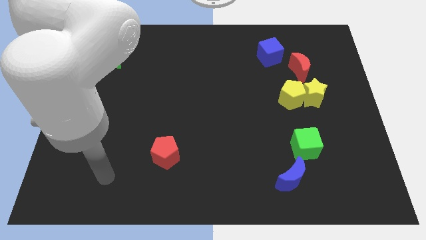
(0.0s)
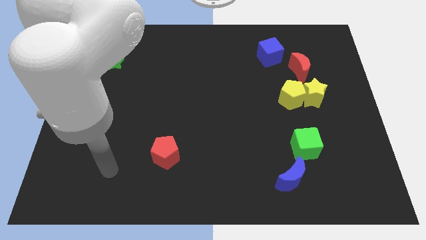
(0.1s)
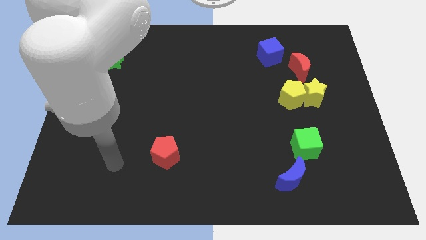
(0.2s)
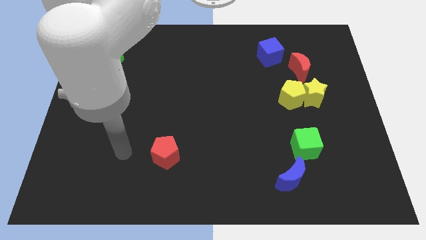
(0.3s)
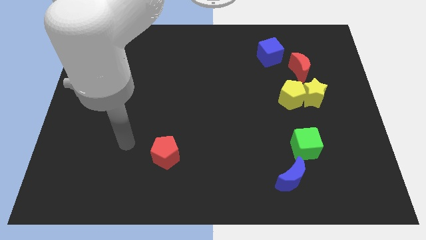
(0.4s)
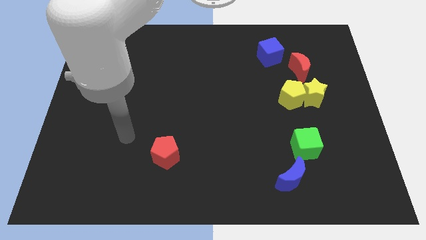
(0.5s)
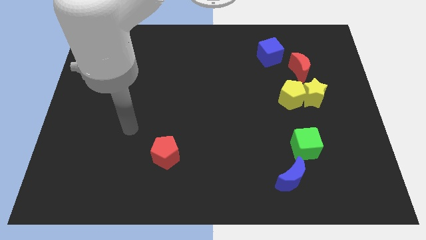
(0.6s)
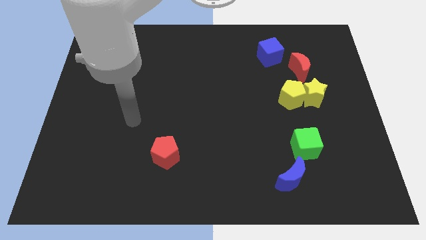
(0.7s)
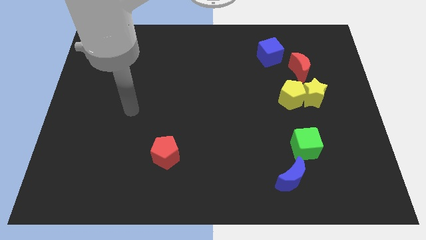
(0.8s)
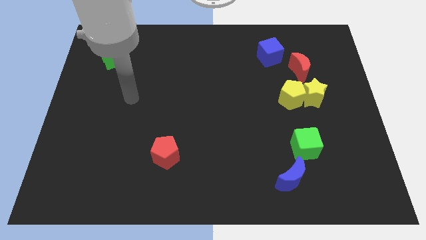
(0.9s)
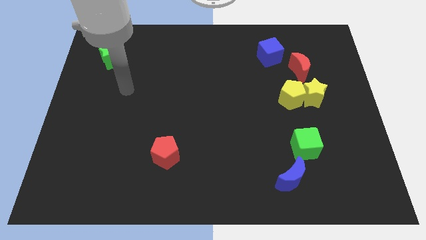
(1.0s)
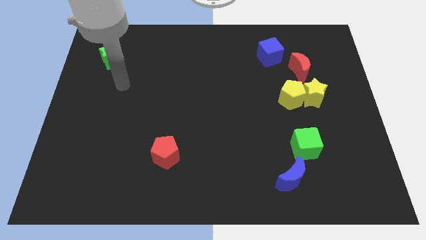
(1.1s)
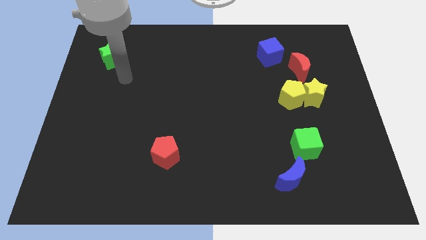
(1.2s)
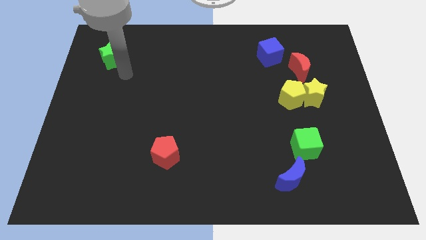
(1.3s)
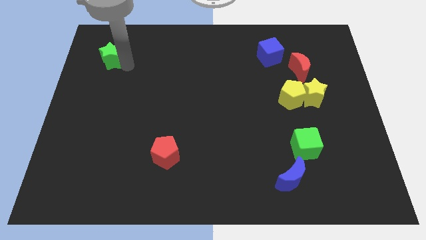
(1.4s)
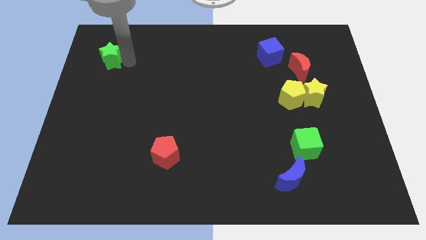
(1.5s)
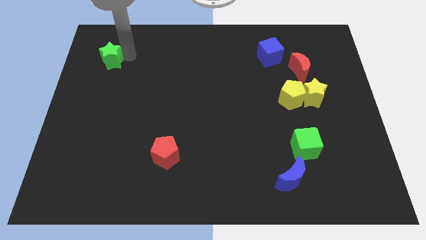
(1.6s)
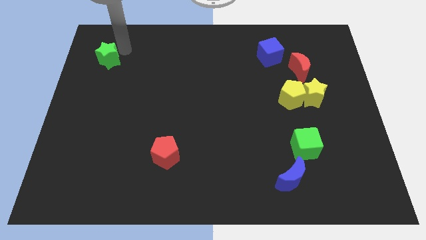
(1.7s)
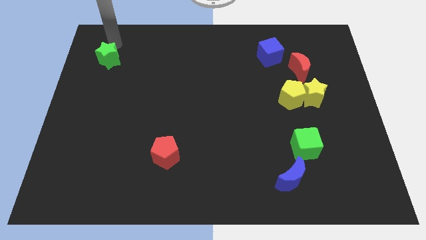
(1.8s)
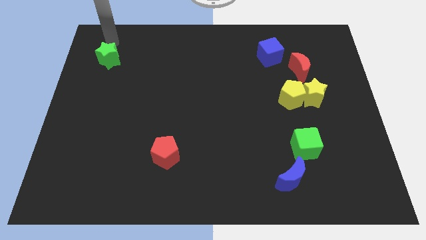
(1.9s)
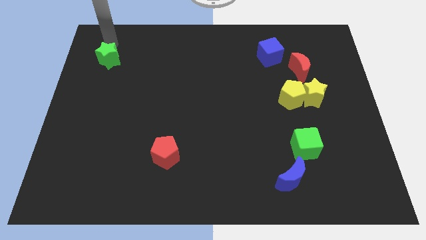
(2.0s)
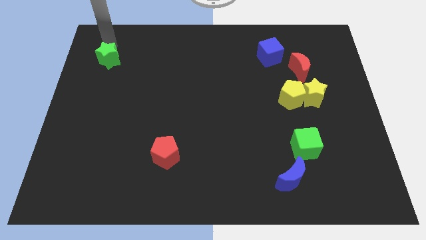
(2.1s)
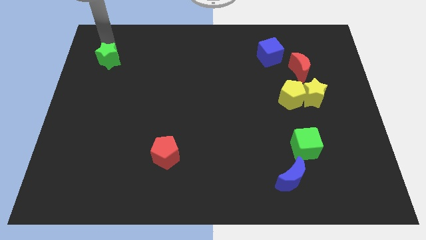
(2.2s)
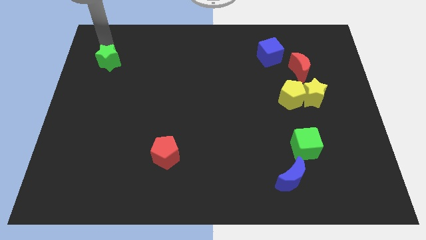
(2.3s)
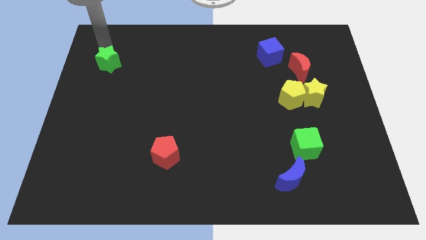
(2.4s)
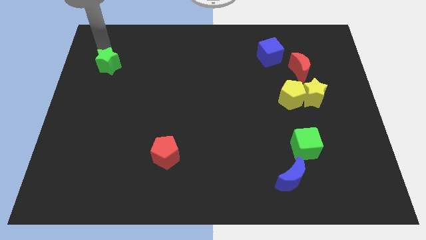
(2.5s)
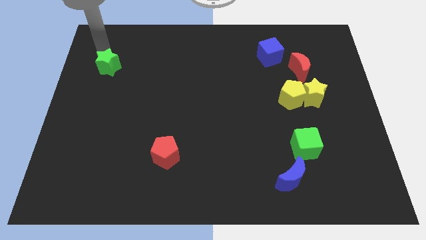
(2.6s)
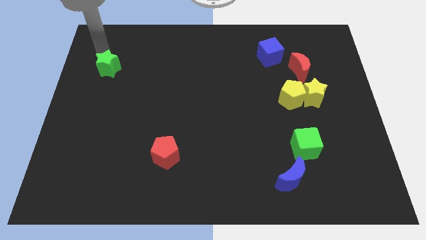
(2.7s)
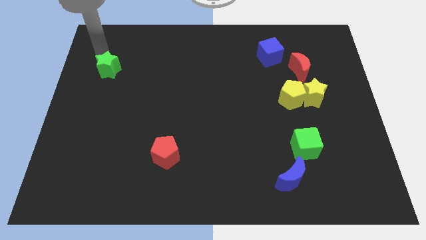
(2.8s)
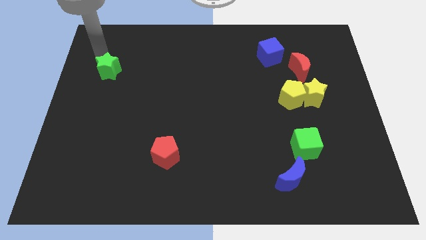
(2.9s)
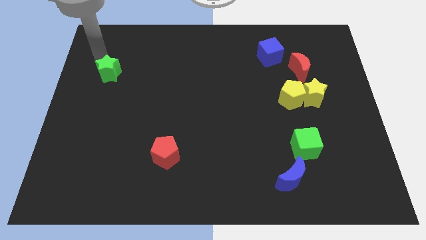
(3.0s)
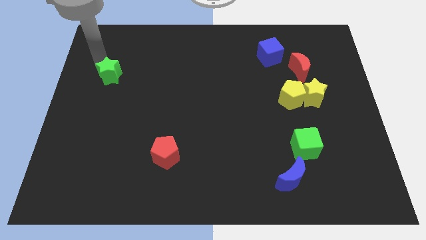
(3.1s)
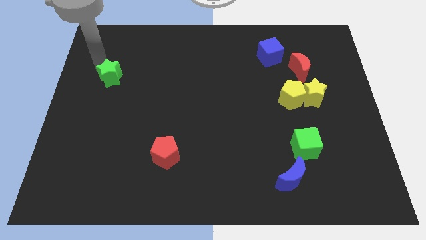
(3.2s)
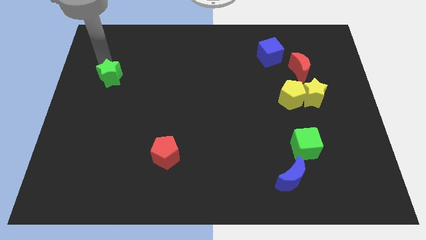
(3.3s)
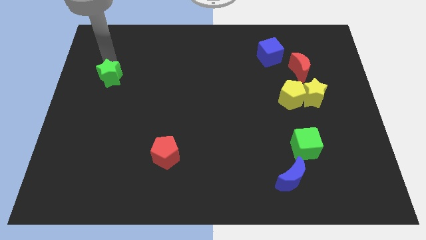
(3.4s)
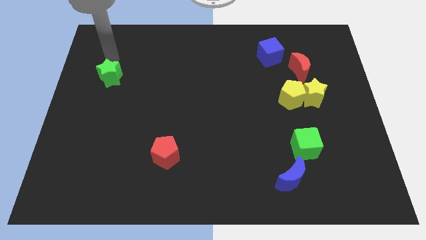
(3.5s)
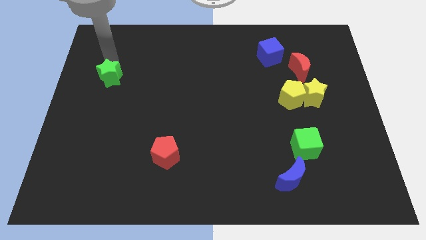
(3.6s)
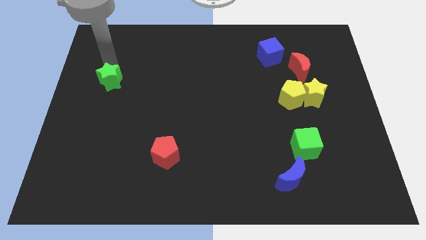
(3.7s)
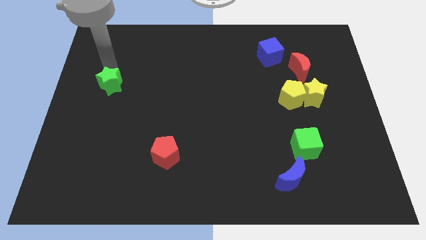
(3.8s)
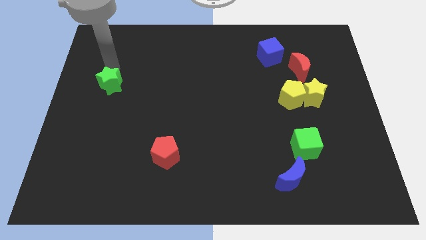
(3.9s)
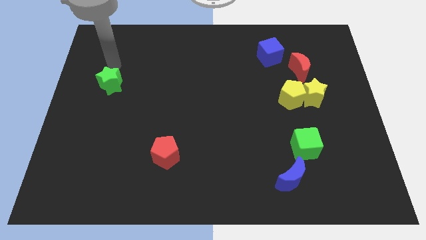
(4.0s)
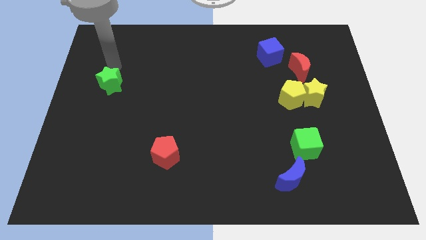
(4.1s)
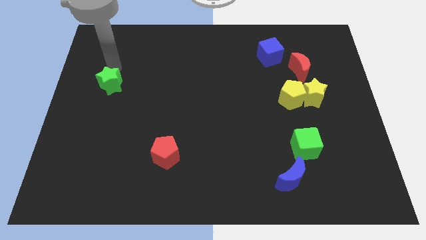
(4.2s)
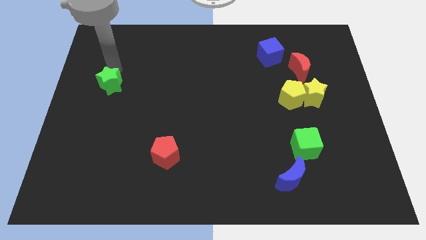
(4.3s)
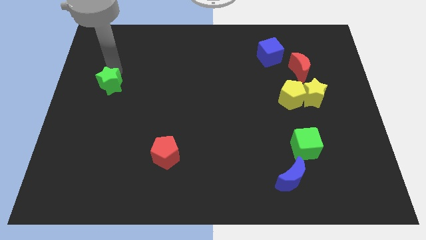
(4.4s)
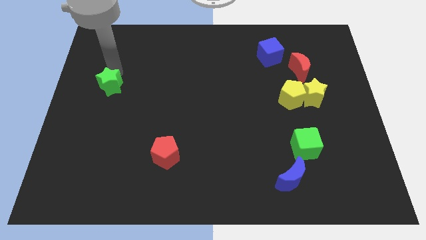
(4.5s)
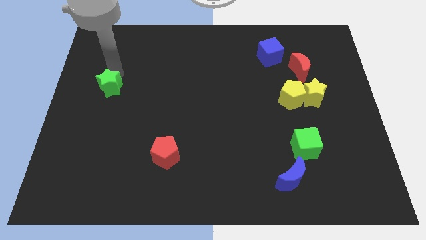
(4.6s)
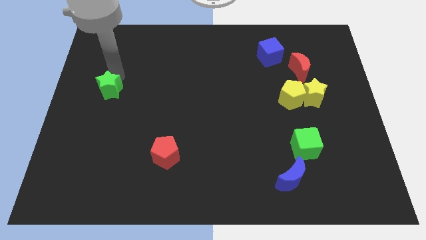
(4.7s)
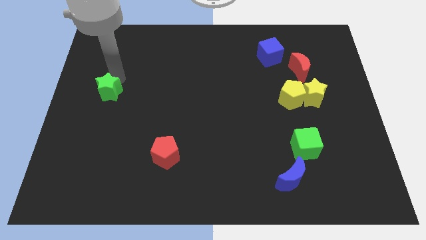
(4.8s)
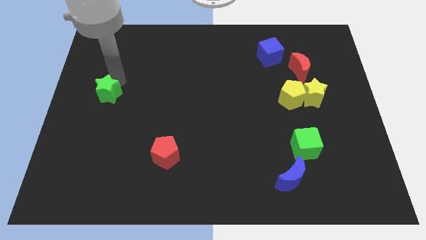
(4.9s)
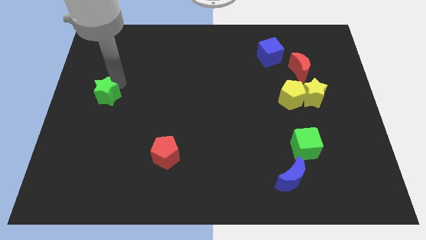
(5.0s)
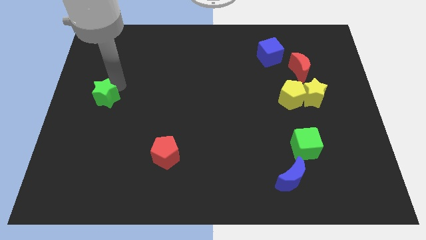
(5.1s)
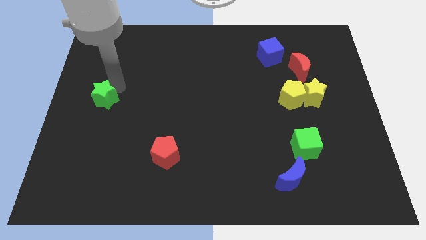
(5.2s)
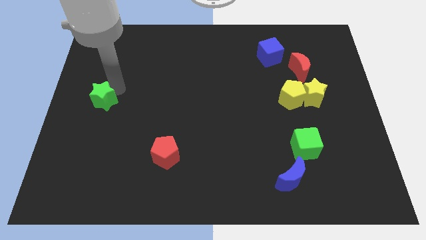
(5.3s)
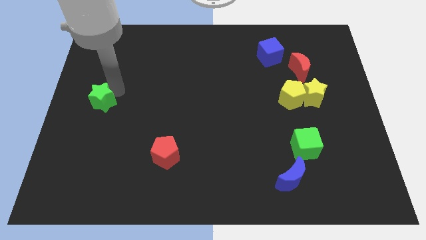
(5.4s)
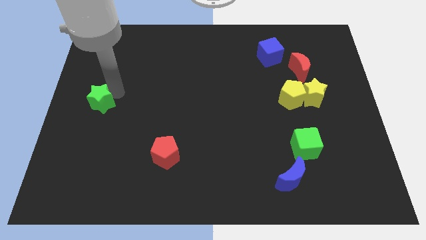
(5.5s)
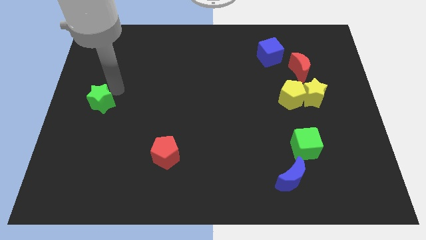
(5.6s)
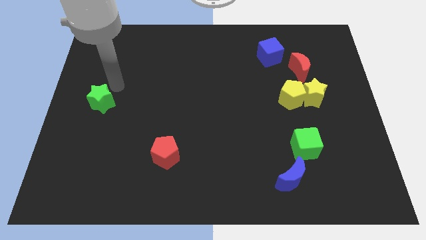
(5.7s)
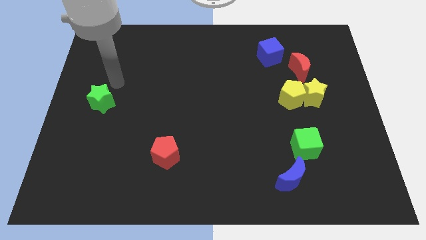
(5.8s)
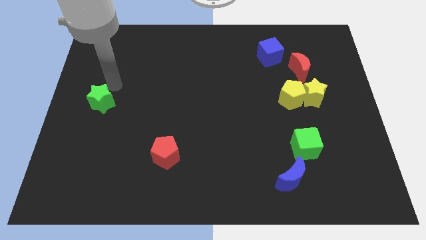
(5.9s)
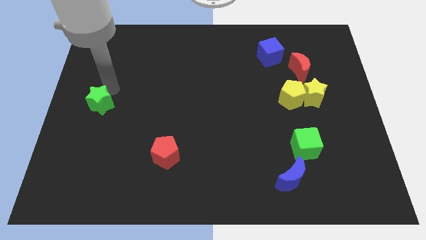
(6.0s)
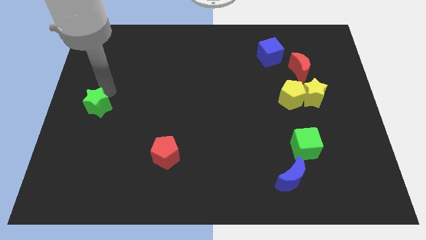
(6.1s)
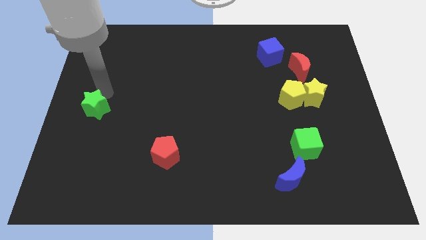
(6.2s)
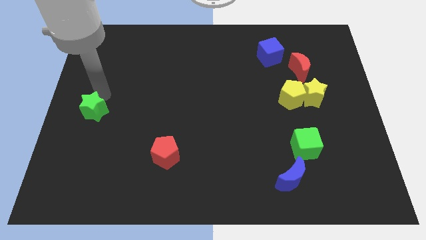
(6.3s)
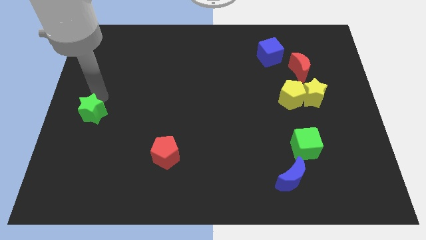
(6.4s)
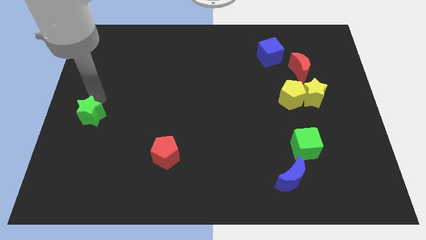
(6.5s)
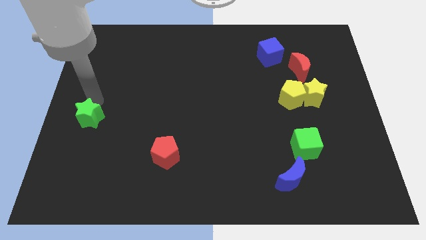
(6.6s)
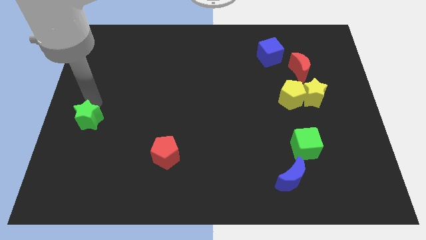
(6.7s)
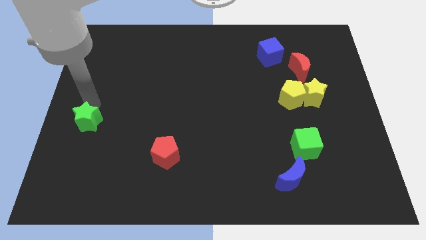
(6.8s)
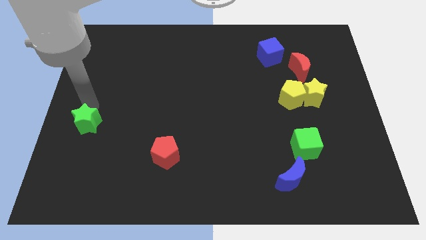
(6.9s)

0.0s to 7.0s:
move the green star down

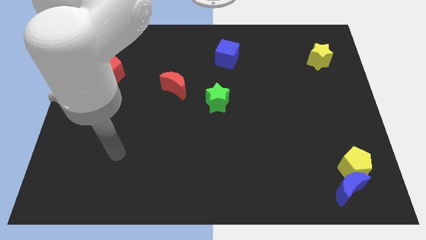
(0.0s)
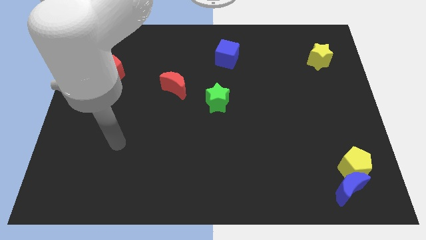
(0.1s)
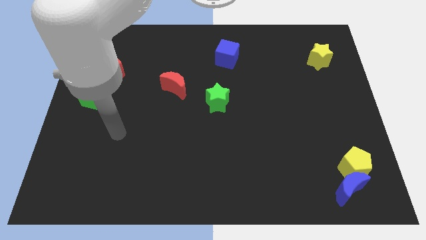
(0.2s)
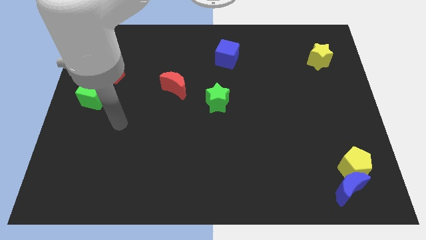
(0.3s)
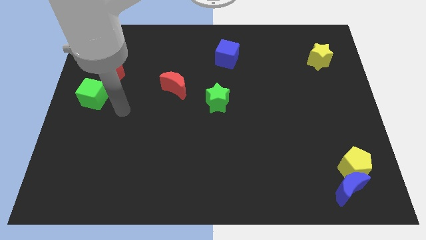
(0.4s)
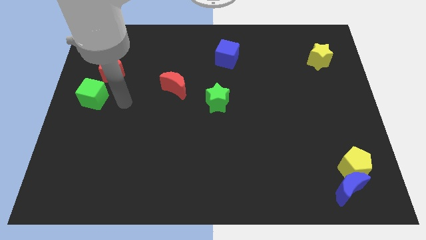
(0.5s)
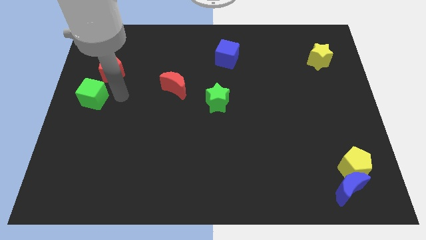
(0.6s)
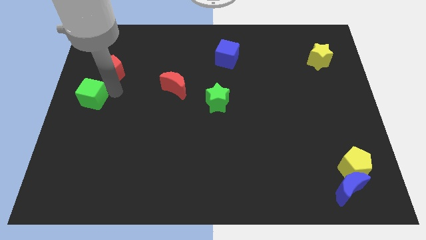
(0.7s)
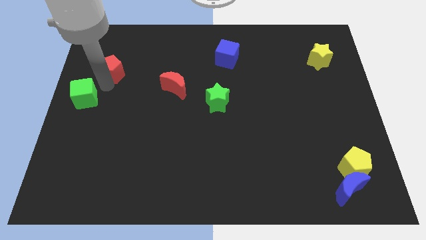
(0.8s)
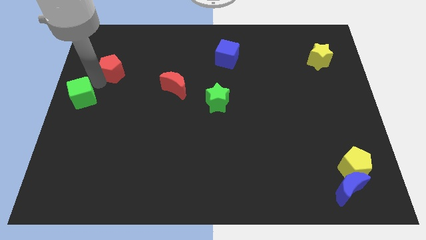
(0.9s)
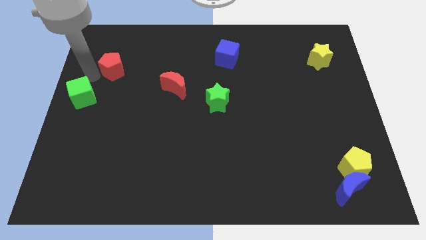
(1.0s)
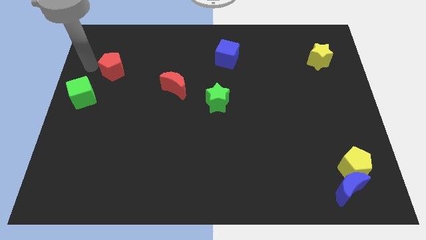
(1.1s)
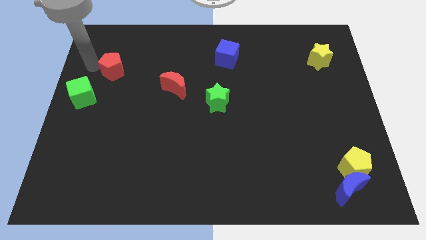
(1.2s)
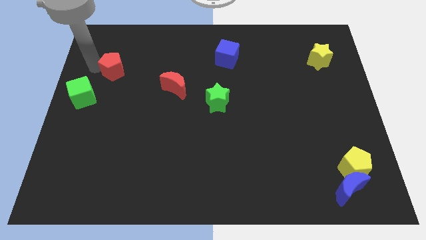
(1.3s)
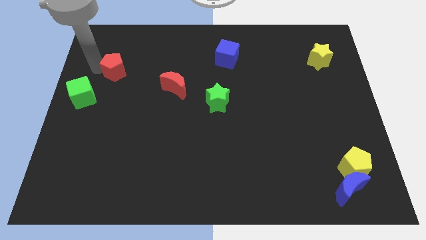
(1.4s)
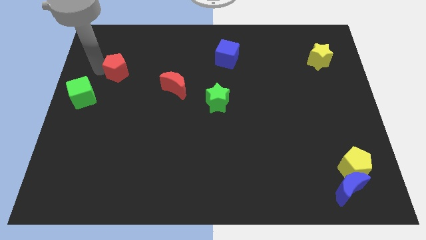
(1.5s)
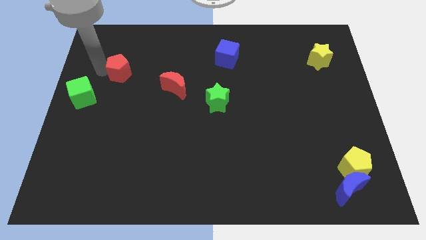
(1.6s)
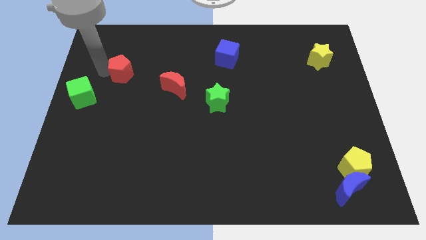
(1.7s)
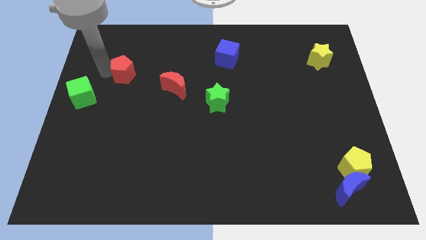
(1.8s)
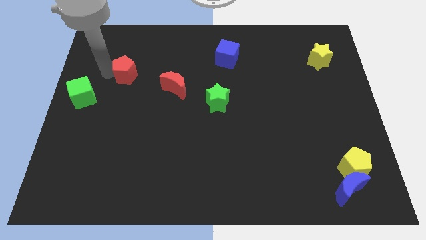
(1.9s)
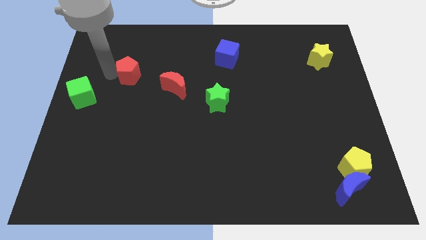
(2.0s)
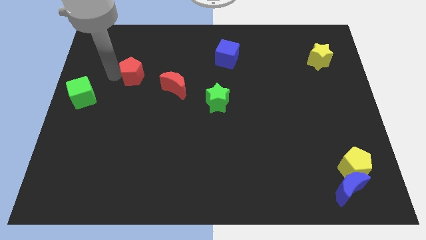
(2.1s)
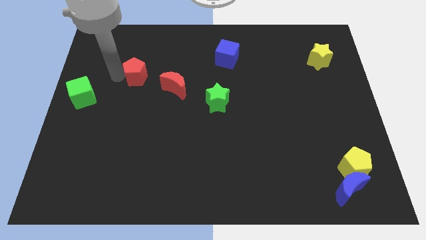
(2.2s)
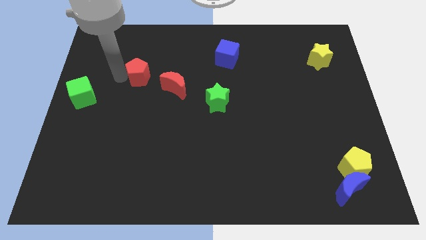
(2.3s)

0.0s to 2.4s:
move the red pentagon right a bit
